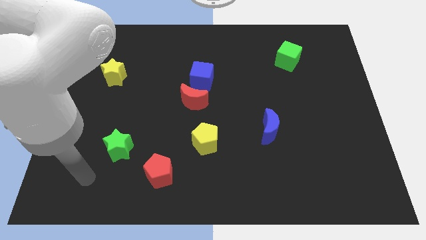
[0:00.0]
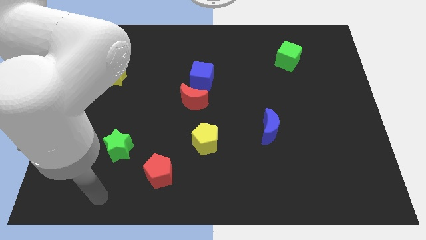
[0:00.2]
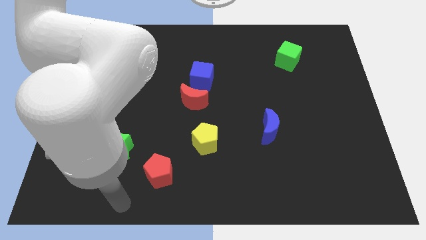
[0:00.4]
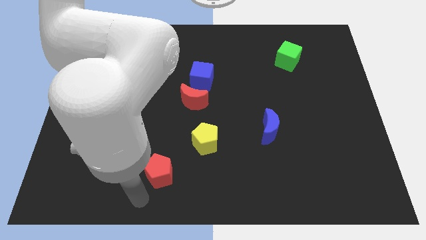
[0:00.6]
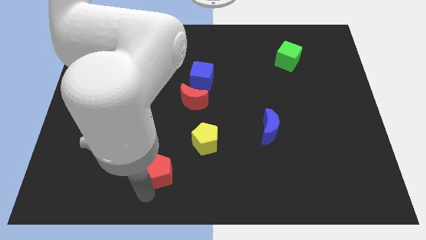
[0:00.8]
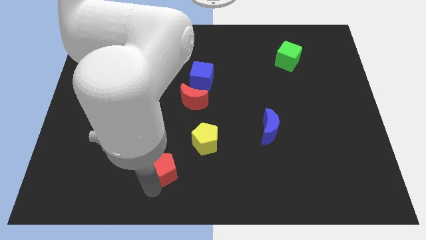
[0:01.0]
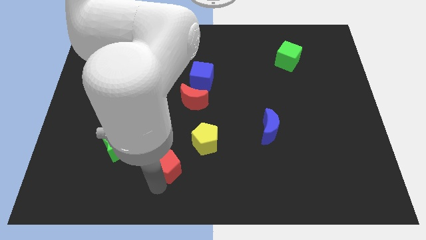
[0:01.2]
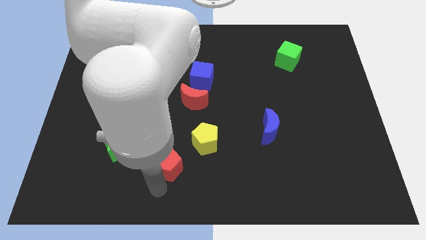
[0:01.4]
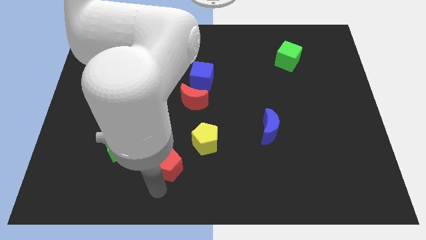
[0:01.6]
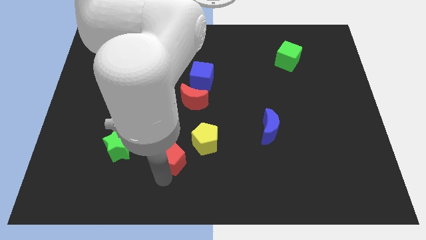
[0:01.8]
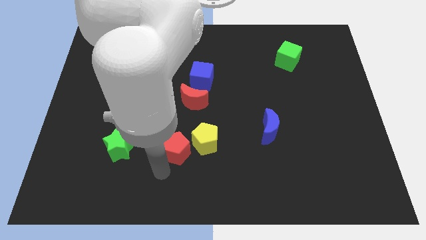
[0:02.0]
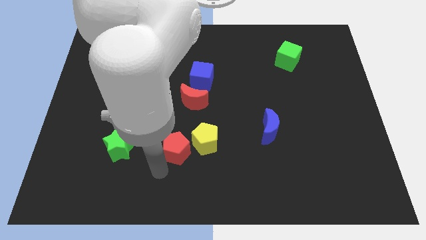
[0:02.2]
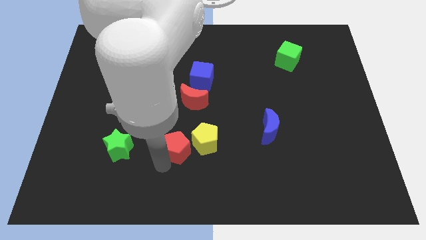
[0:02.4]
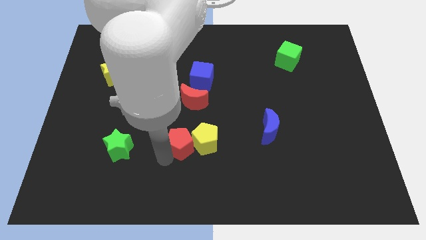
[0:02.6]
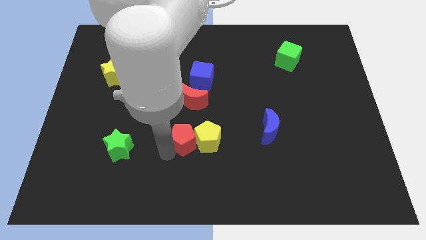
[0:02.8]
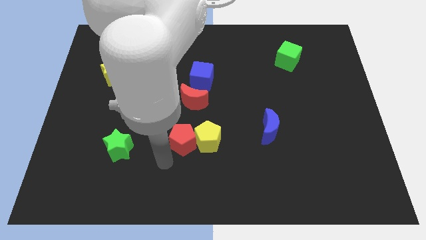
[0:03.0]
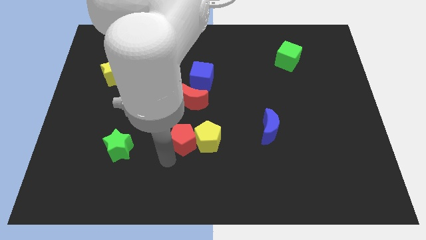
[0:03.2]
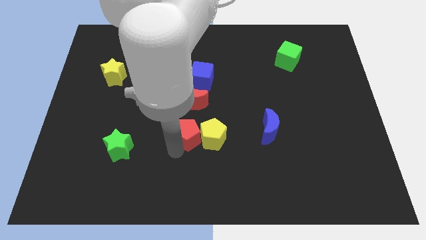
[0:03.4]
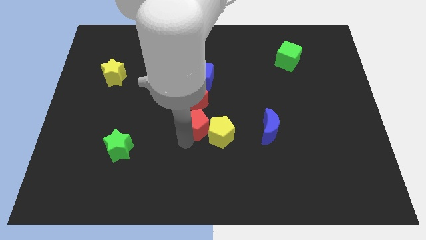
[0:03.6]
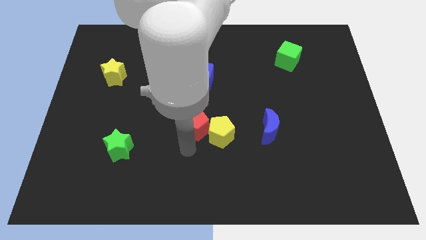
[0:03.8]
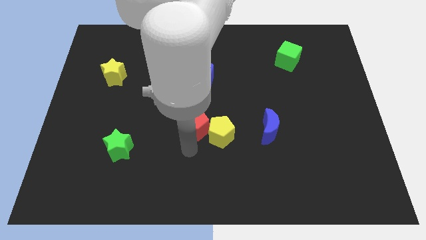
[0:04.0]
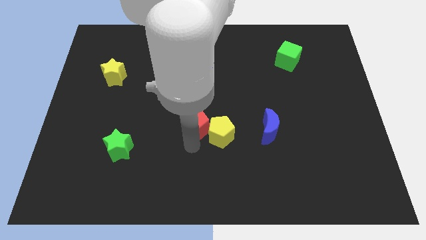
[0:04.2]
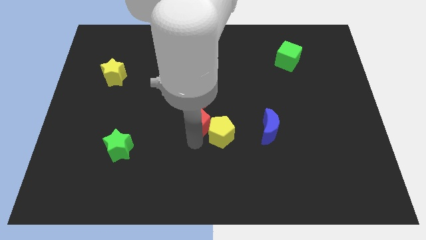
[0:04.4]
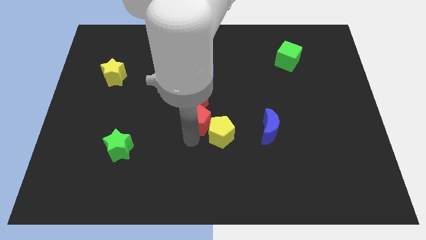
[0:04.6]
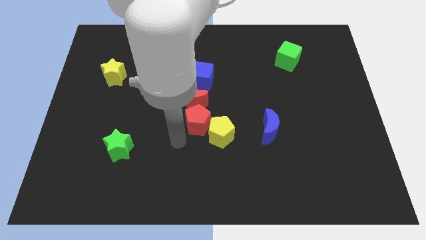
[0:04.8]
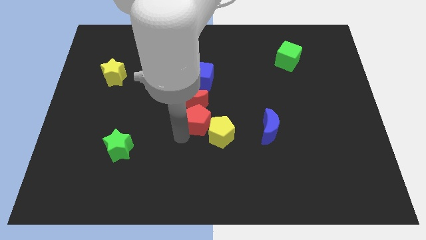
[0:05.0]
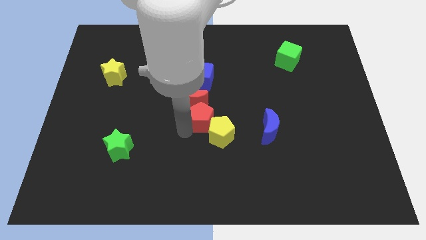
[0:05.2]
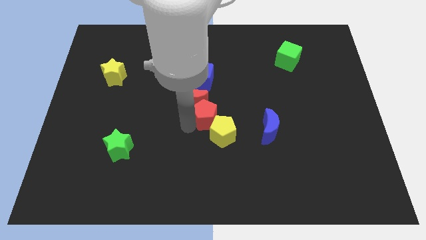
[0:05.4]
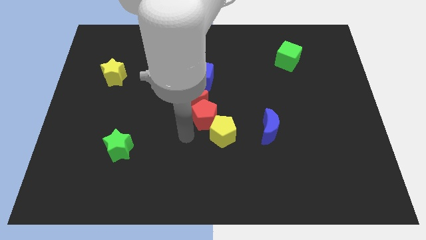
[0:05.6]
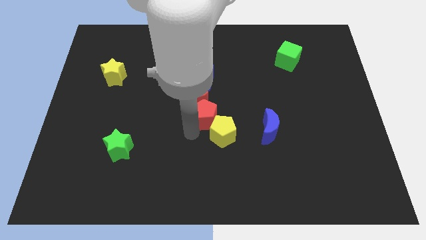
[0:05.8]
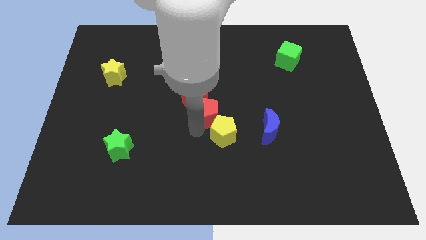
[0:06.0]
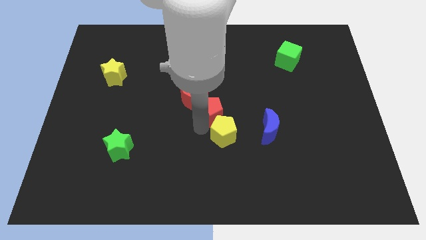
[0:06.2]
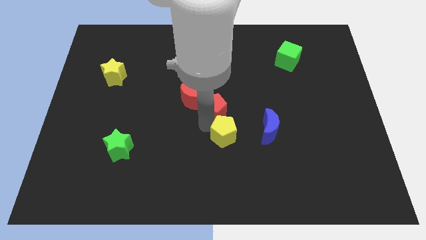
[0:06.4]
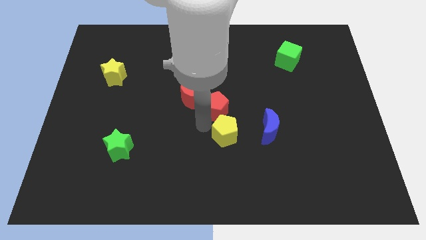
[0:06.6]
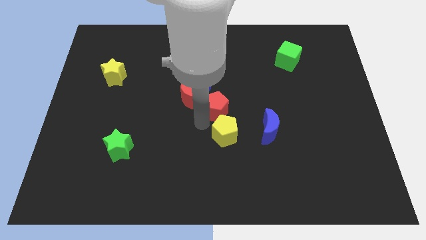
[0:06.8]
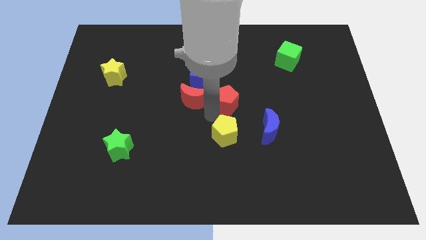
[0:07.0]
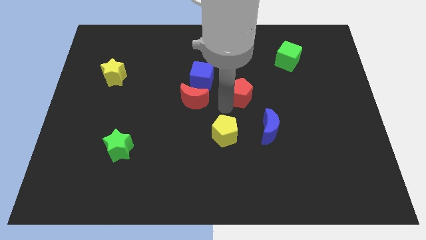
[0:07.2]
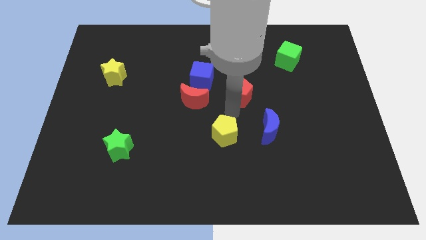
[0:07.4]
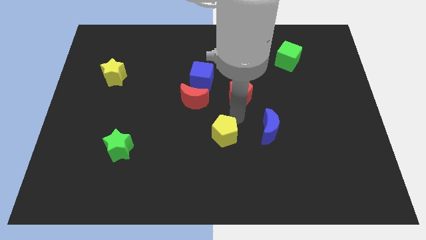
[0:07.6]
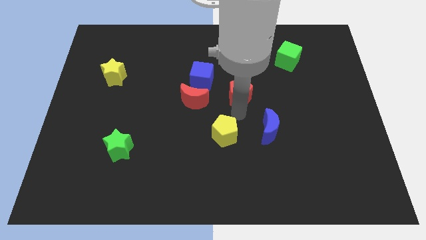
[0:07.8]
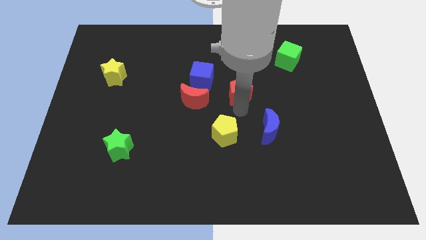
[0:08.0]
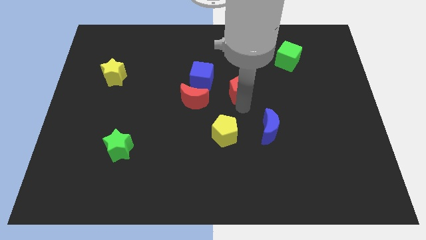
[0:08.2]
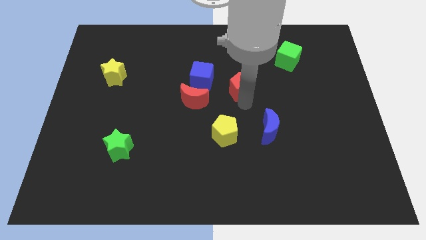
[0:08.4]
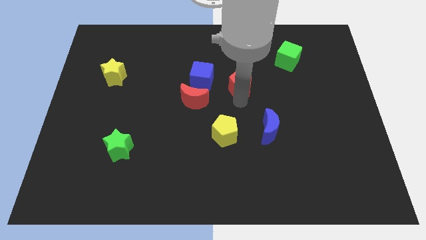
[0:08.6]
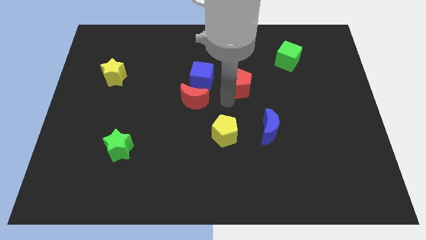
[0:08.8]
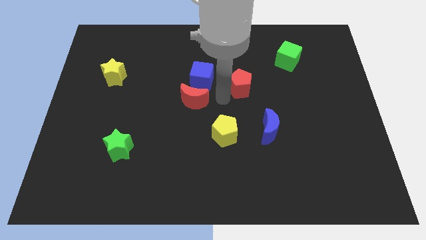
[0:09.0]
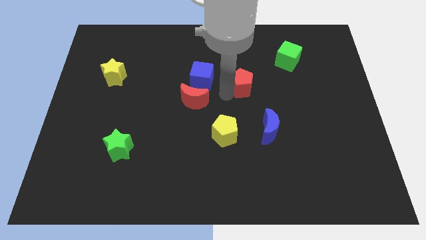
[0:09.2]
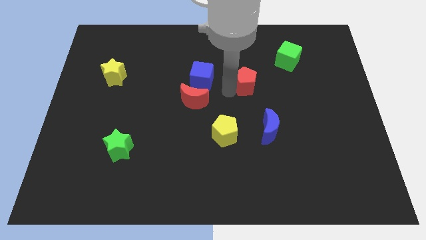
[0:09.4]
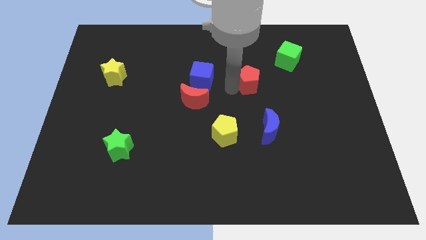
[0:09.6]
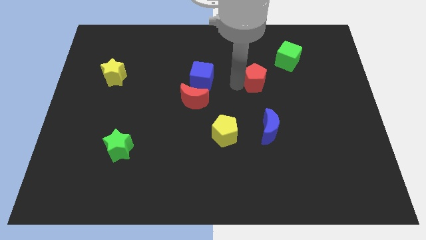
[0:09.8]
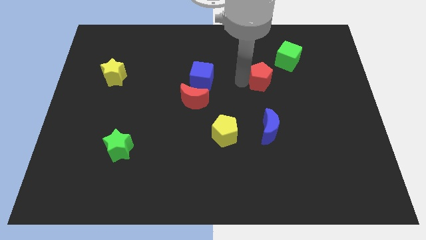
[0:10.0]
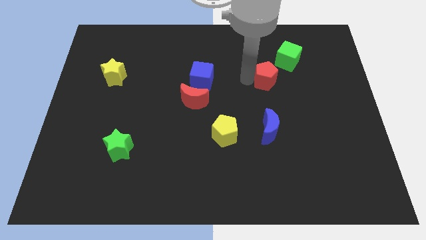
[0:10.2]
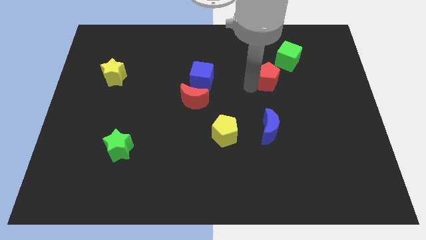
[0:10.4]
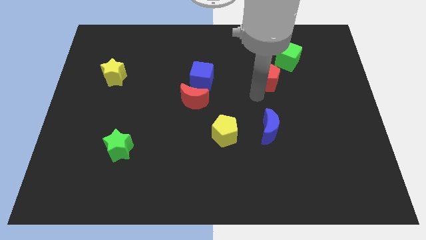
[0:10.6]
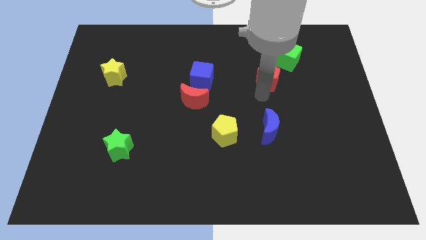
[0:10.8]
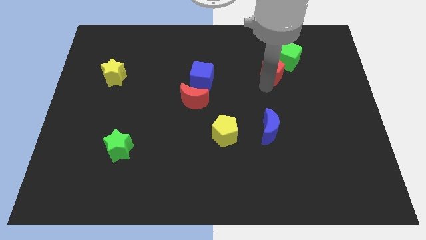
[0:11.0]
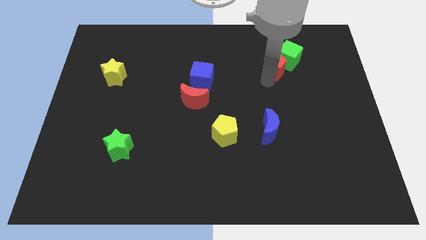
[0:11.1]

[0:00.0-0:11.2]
slide the red pentagon close to the green cube

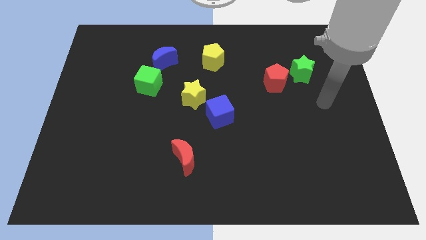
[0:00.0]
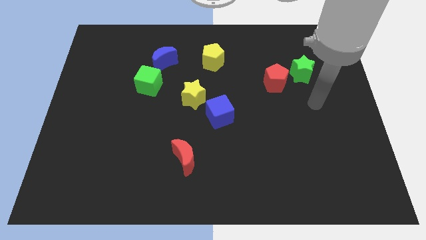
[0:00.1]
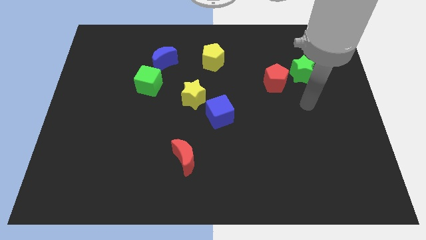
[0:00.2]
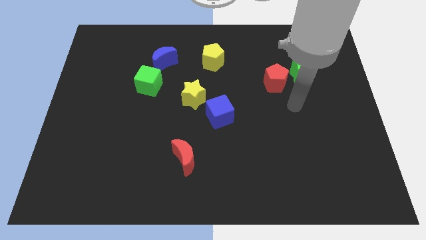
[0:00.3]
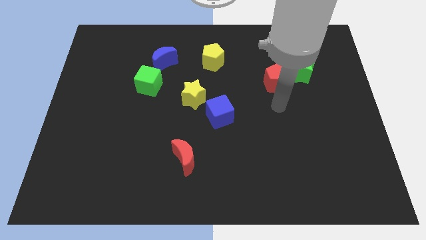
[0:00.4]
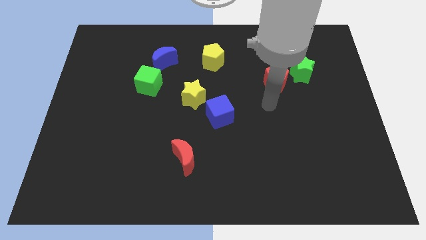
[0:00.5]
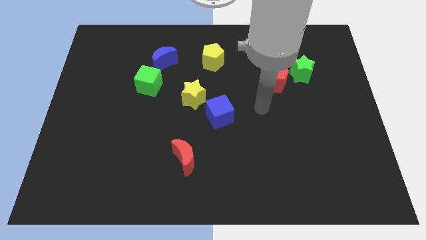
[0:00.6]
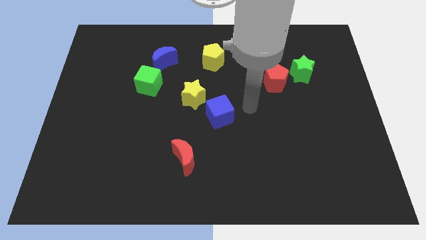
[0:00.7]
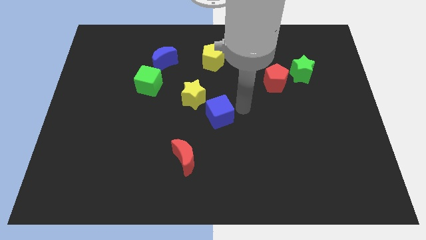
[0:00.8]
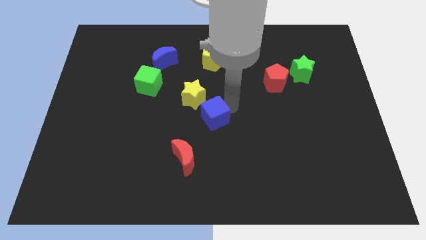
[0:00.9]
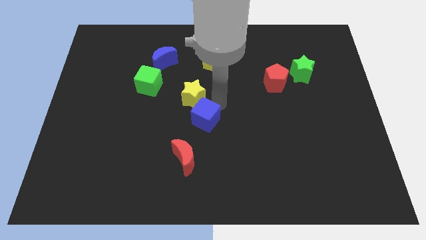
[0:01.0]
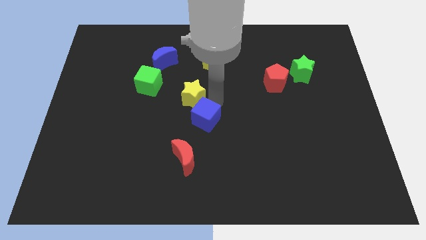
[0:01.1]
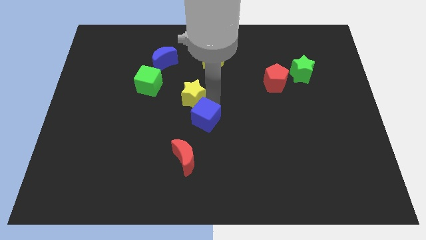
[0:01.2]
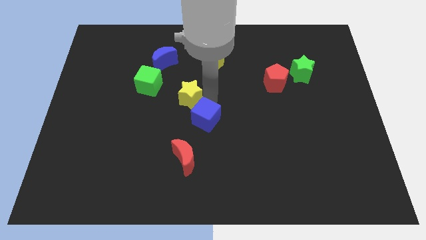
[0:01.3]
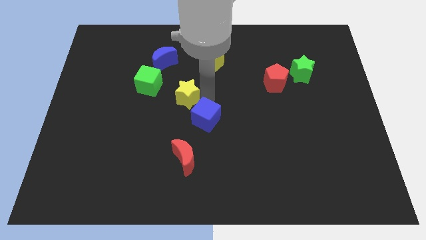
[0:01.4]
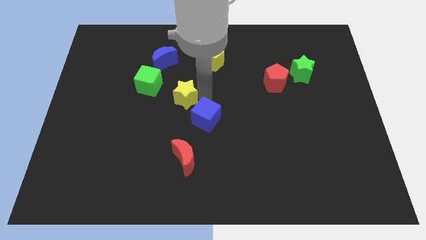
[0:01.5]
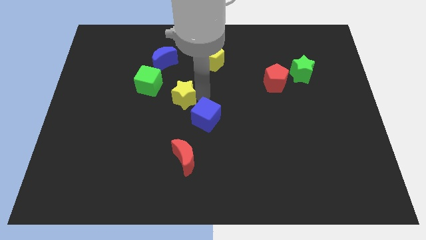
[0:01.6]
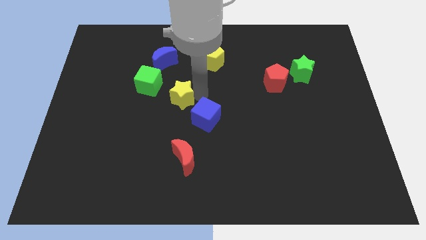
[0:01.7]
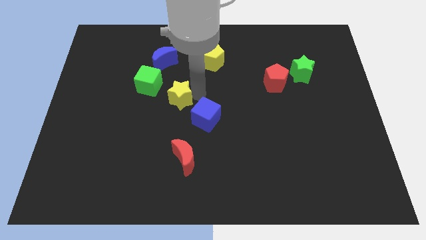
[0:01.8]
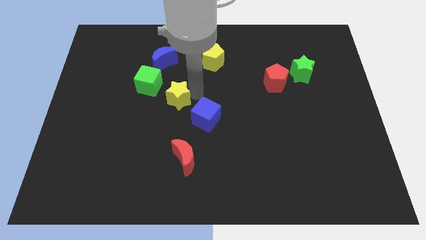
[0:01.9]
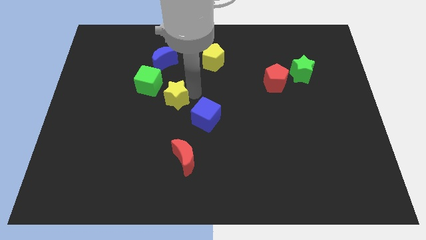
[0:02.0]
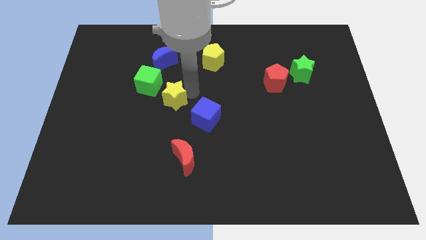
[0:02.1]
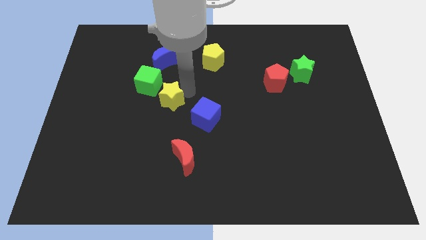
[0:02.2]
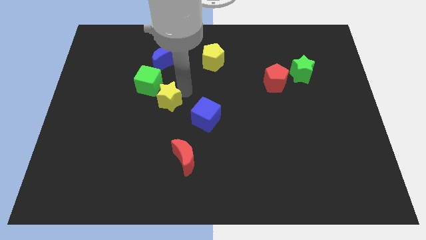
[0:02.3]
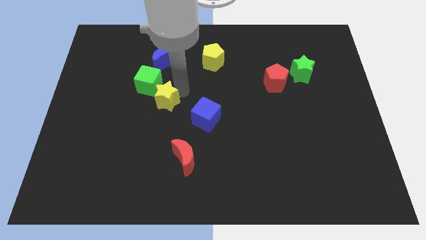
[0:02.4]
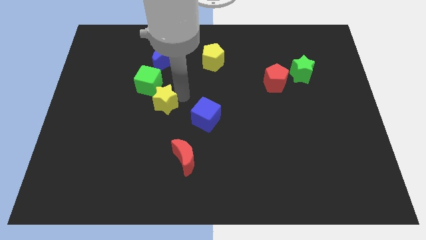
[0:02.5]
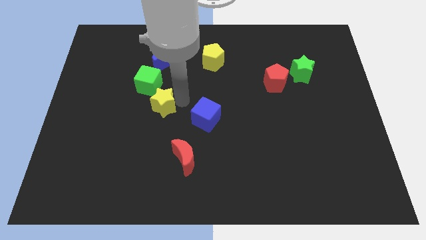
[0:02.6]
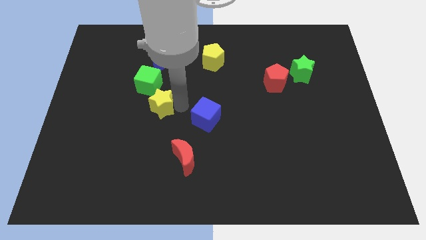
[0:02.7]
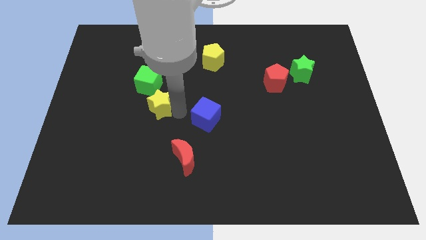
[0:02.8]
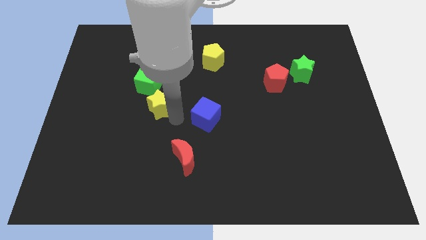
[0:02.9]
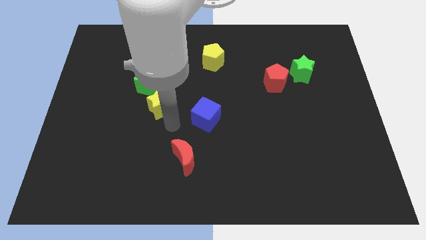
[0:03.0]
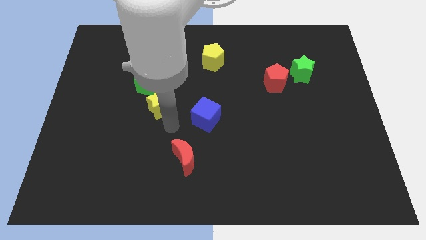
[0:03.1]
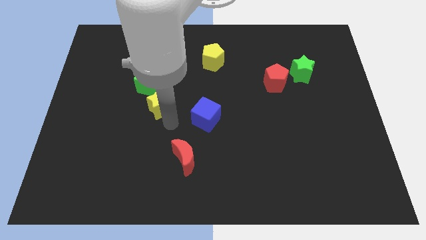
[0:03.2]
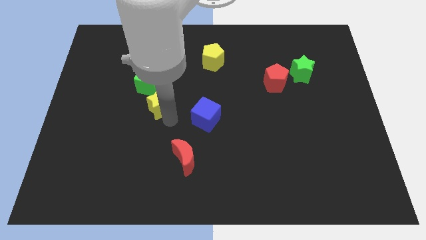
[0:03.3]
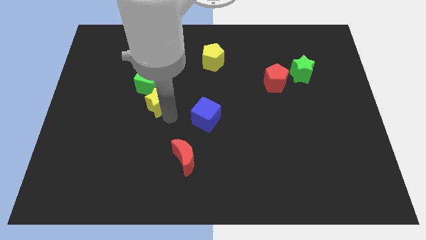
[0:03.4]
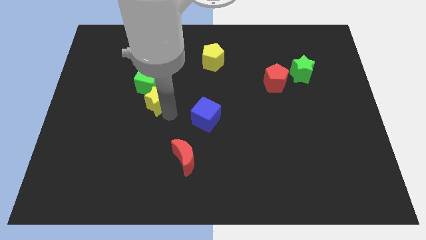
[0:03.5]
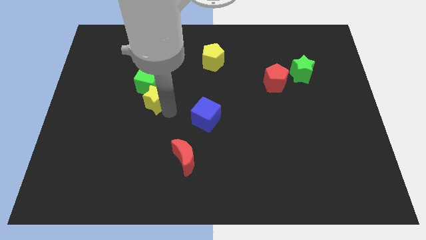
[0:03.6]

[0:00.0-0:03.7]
push the yellow star to the green cube
